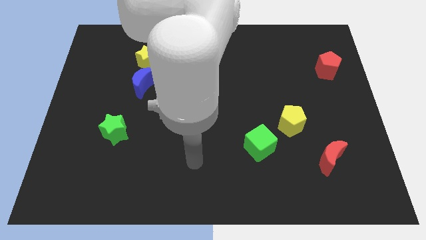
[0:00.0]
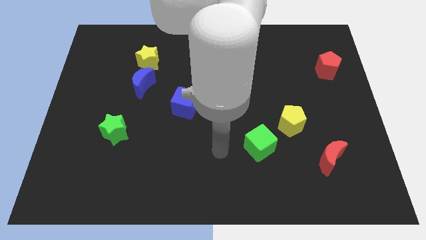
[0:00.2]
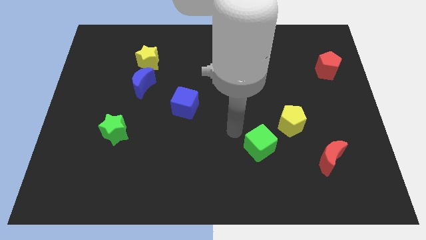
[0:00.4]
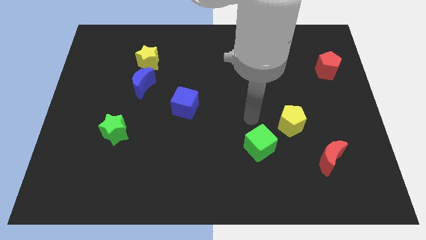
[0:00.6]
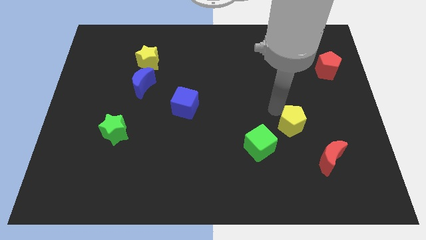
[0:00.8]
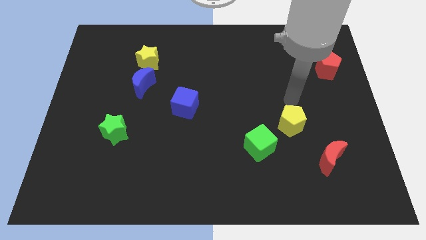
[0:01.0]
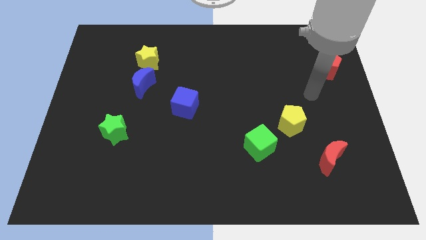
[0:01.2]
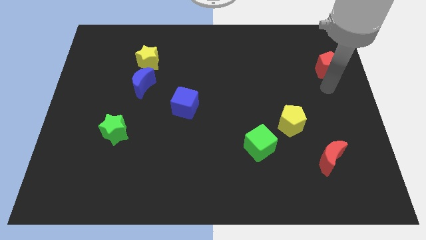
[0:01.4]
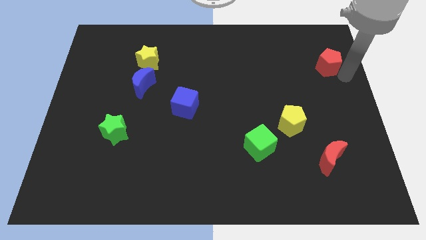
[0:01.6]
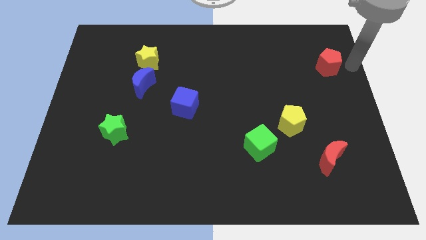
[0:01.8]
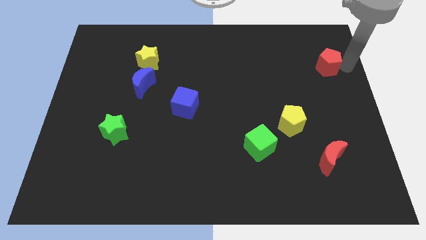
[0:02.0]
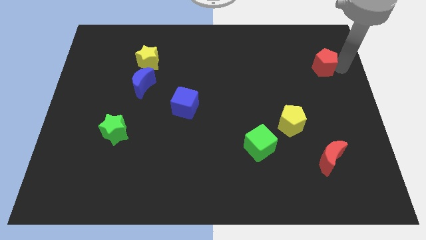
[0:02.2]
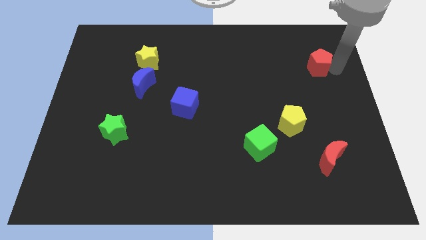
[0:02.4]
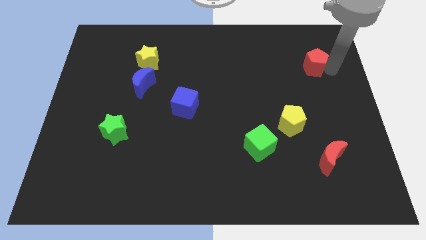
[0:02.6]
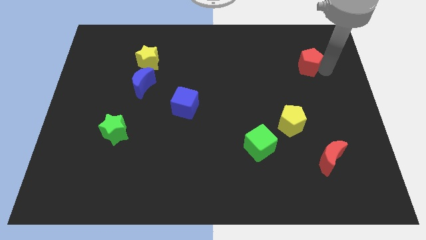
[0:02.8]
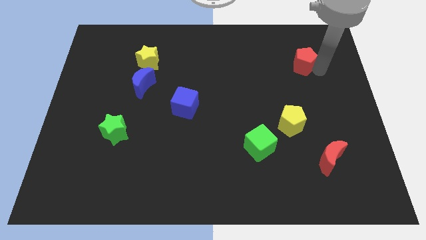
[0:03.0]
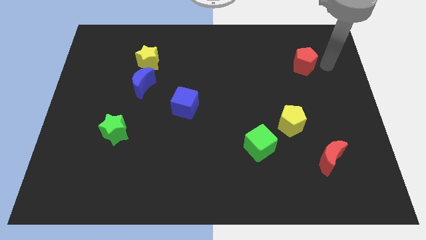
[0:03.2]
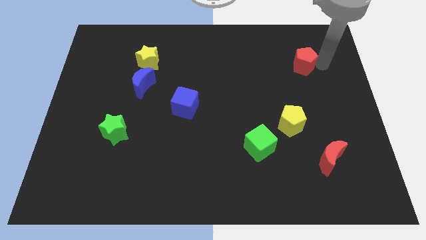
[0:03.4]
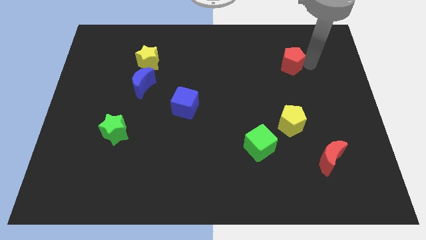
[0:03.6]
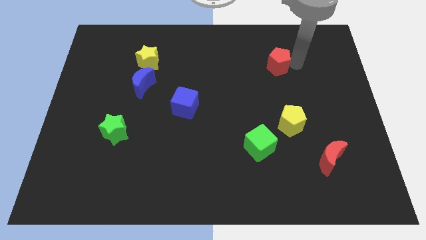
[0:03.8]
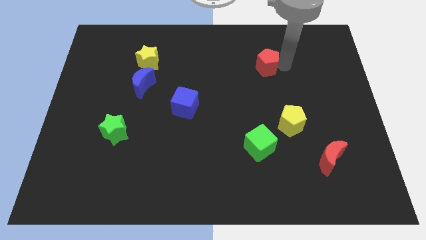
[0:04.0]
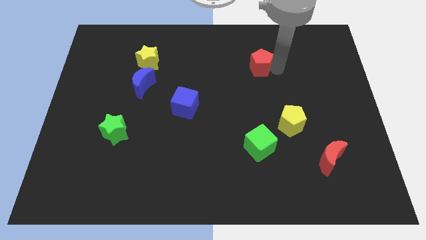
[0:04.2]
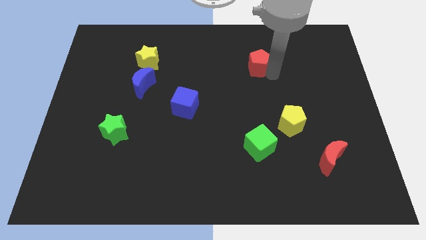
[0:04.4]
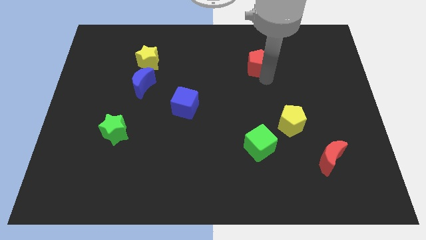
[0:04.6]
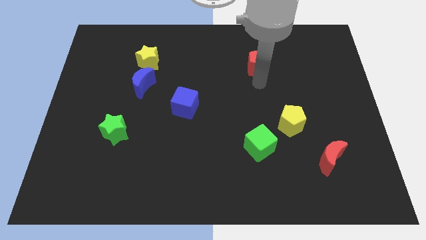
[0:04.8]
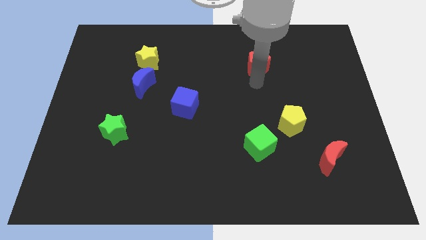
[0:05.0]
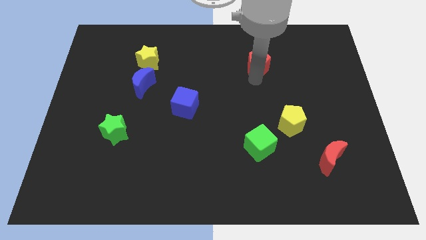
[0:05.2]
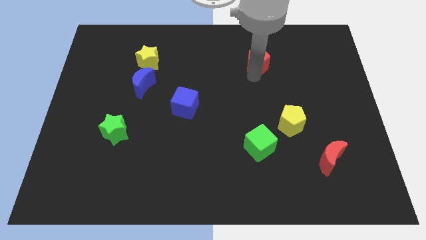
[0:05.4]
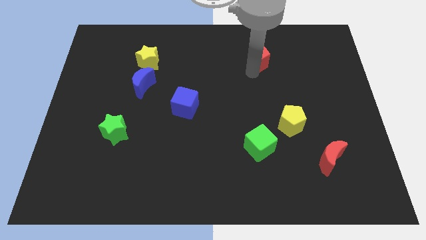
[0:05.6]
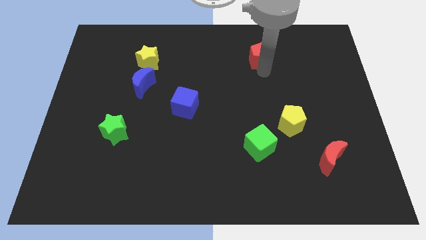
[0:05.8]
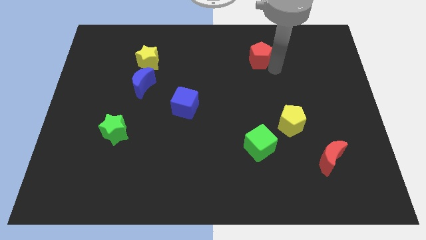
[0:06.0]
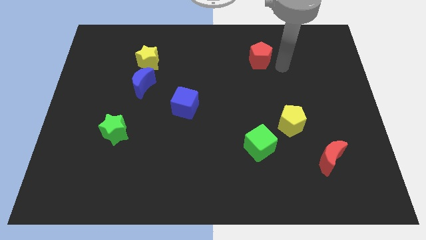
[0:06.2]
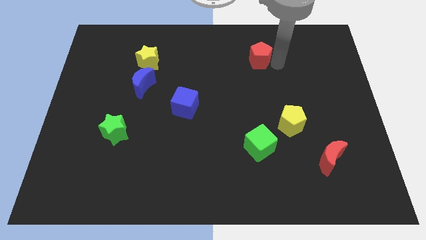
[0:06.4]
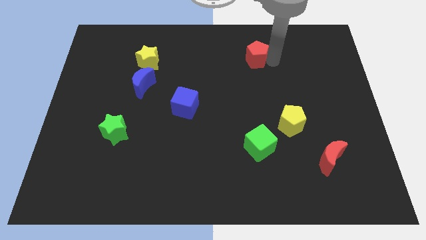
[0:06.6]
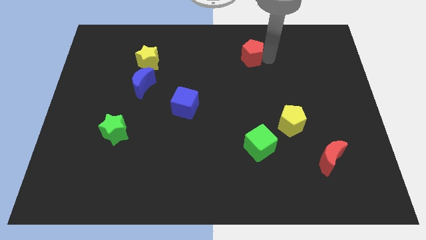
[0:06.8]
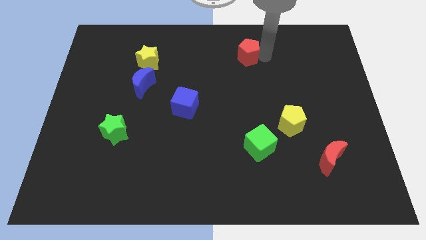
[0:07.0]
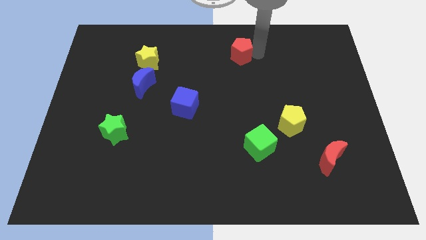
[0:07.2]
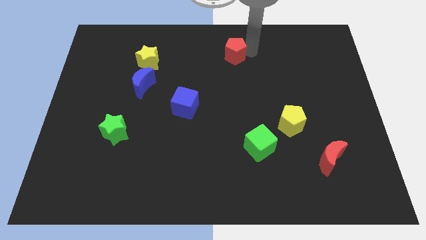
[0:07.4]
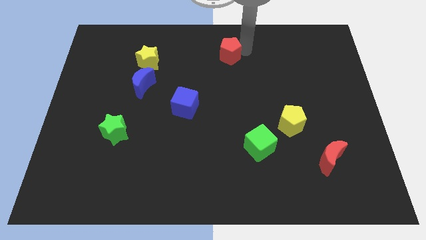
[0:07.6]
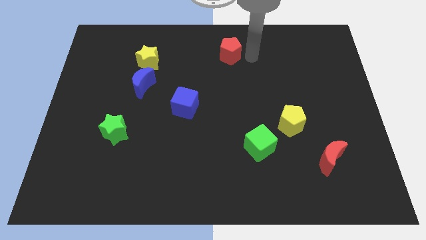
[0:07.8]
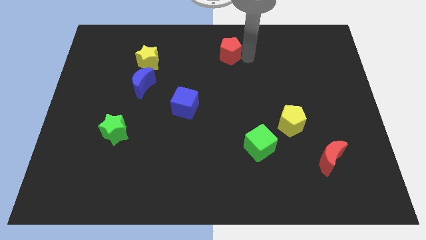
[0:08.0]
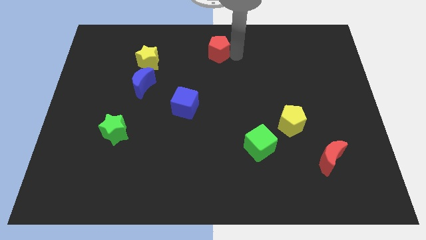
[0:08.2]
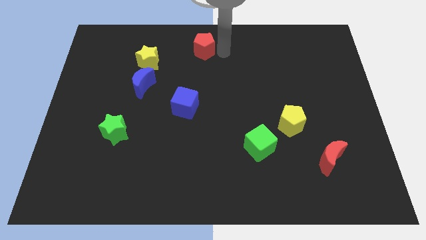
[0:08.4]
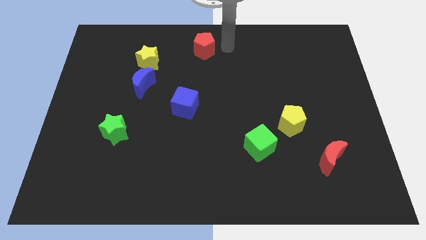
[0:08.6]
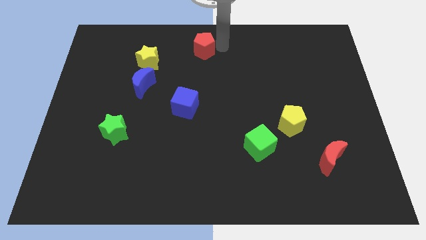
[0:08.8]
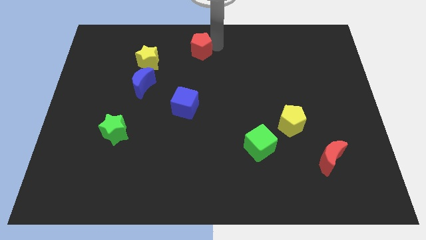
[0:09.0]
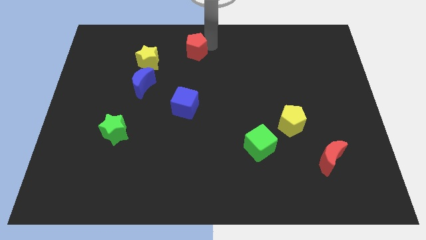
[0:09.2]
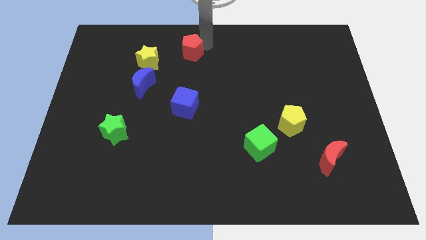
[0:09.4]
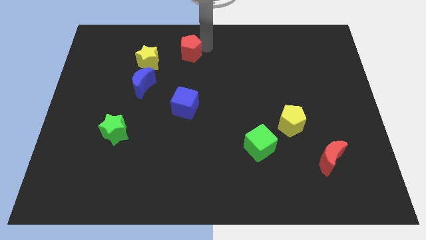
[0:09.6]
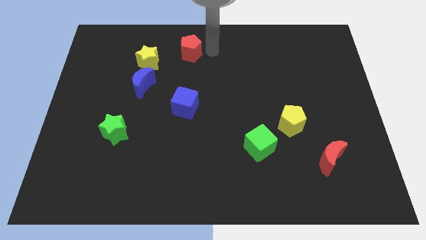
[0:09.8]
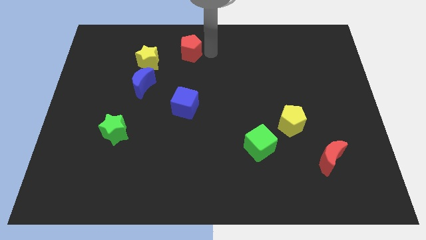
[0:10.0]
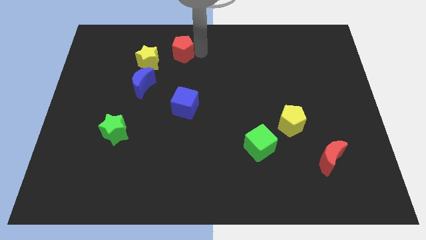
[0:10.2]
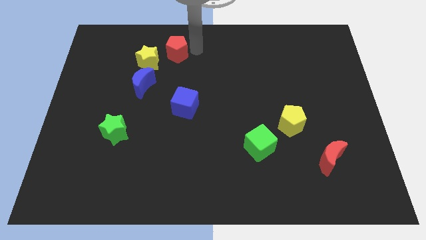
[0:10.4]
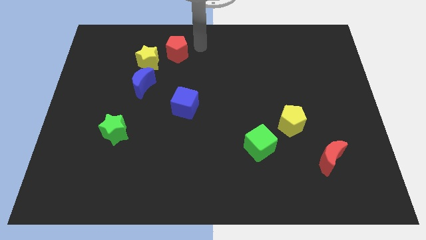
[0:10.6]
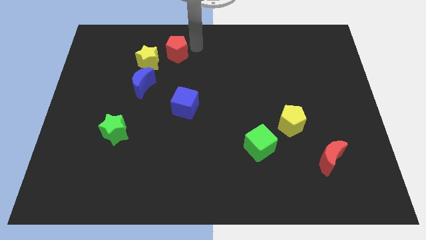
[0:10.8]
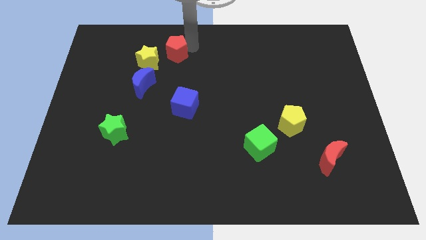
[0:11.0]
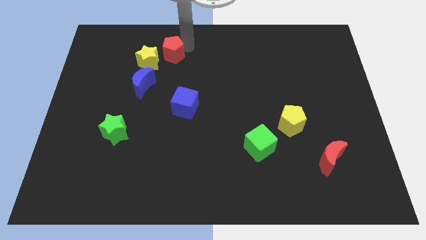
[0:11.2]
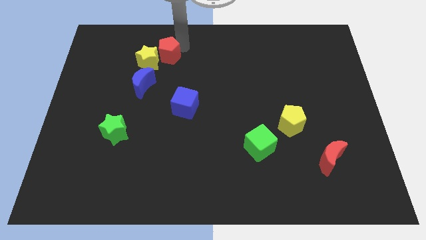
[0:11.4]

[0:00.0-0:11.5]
move the red pentagon close to the yellow star

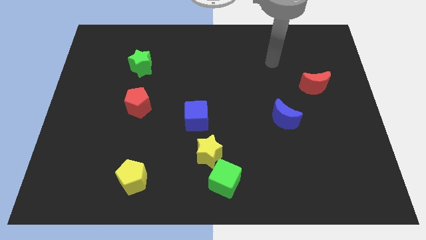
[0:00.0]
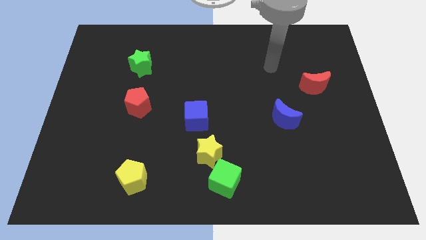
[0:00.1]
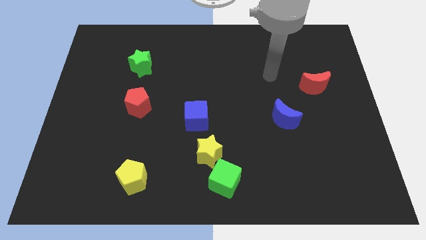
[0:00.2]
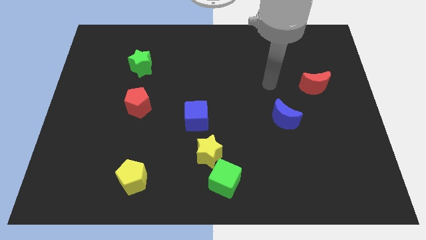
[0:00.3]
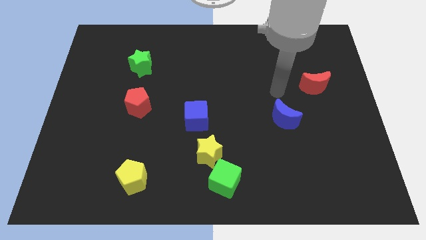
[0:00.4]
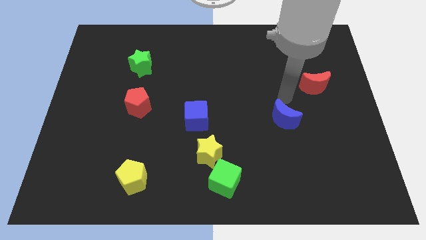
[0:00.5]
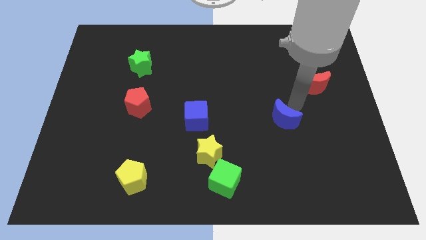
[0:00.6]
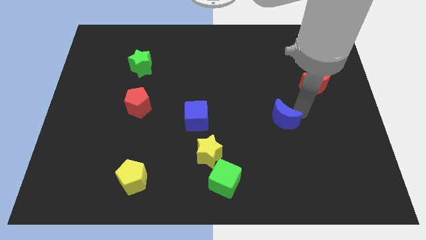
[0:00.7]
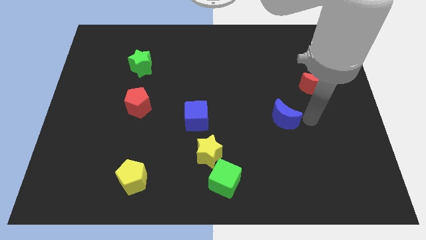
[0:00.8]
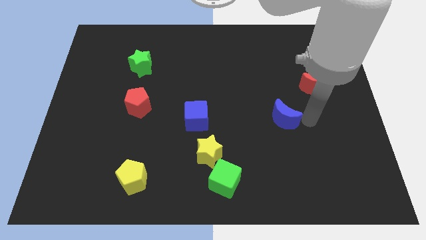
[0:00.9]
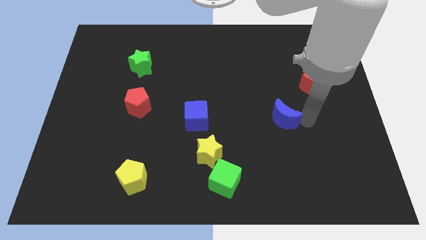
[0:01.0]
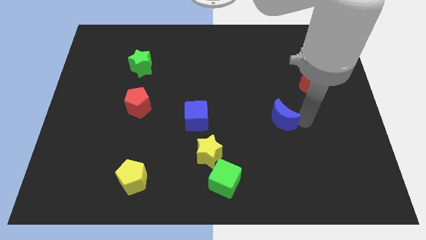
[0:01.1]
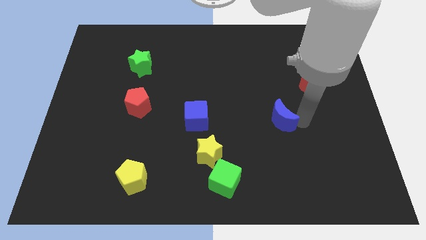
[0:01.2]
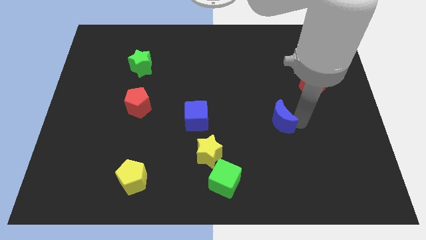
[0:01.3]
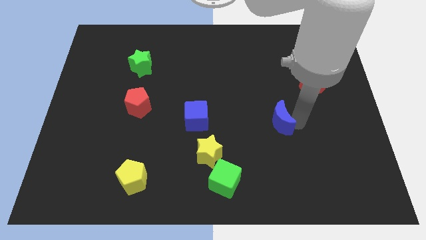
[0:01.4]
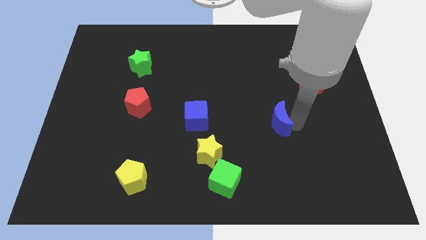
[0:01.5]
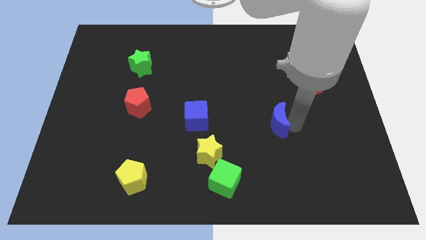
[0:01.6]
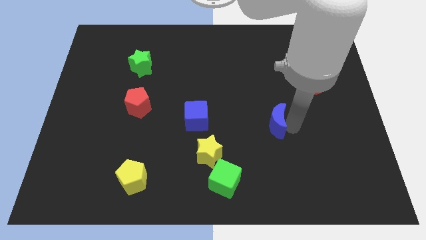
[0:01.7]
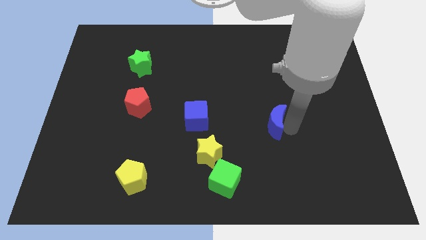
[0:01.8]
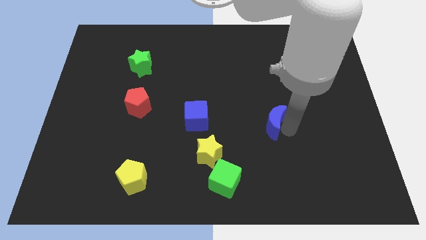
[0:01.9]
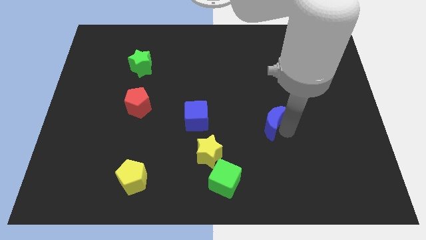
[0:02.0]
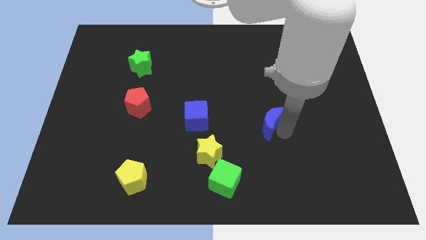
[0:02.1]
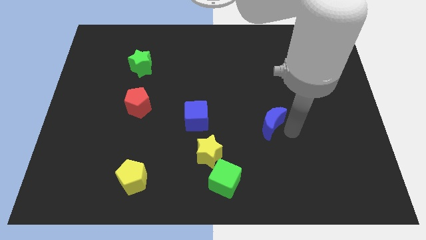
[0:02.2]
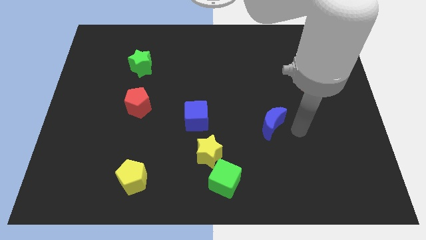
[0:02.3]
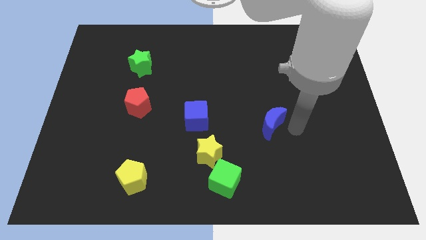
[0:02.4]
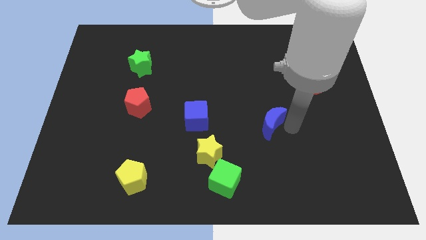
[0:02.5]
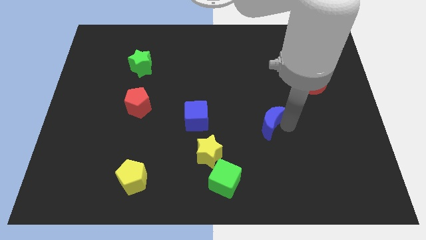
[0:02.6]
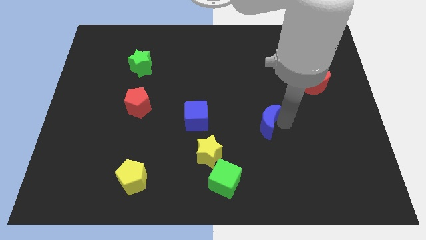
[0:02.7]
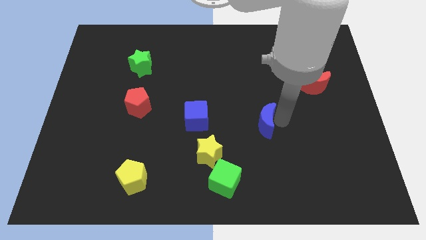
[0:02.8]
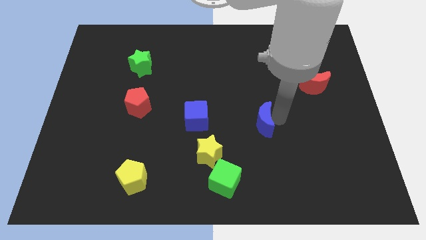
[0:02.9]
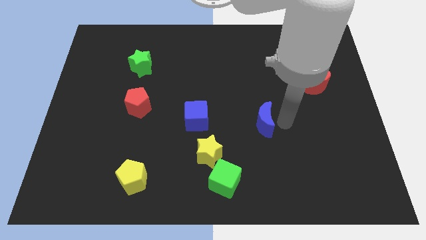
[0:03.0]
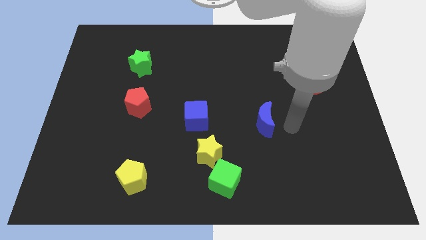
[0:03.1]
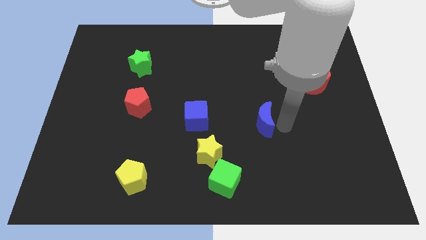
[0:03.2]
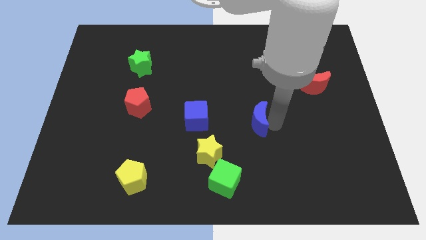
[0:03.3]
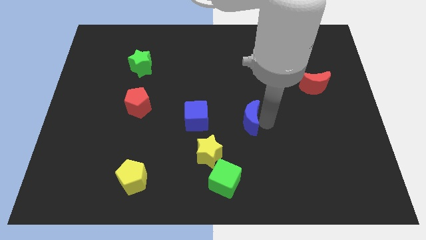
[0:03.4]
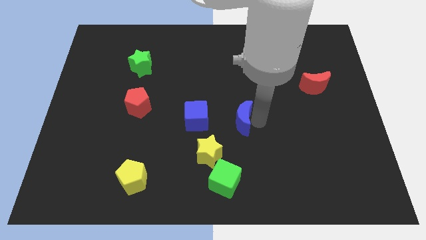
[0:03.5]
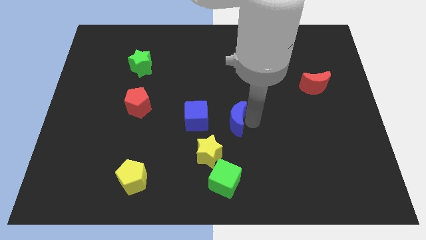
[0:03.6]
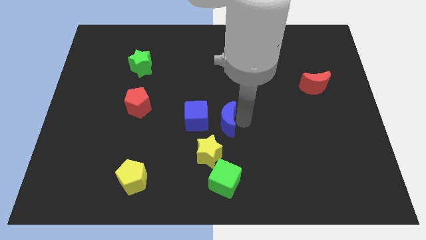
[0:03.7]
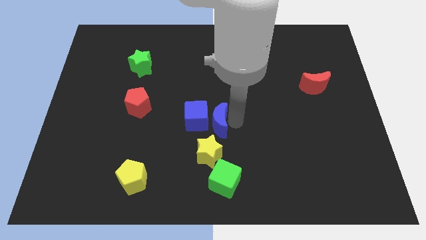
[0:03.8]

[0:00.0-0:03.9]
move the blue moon next to the blue cube
